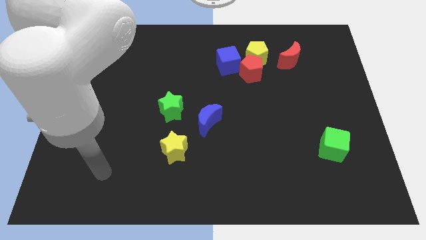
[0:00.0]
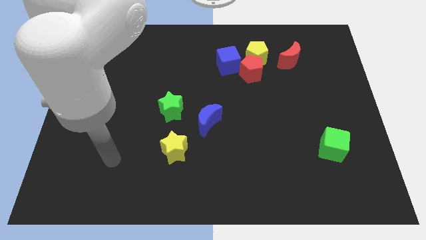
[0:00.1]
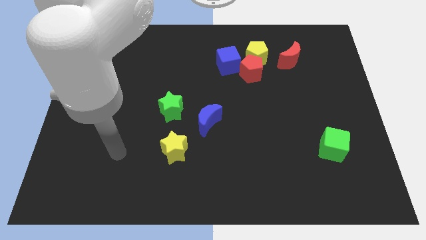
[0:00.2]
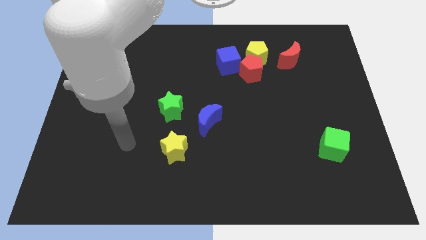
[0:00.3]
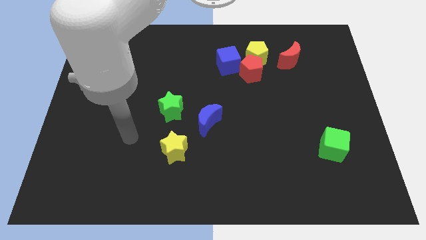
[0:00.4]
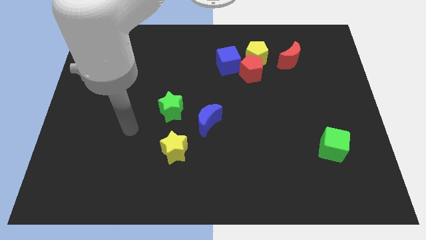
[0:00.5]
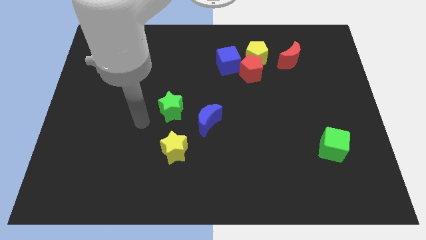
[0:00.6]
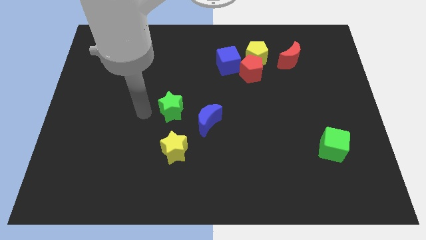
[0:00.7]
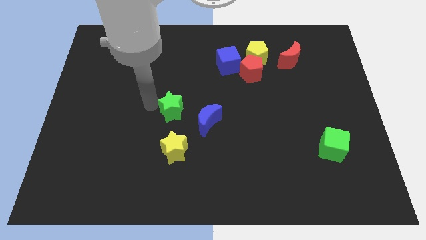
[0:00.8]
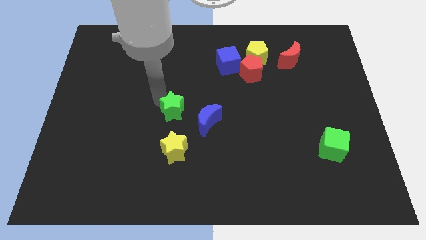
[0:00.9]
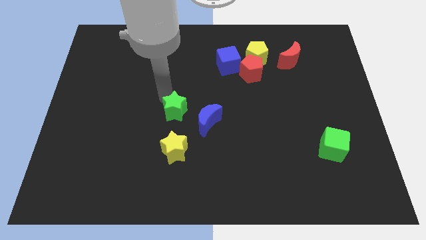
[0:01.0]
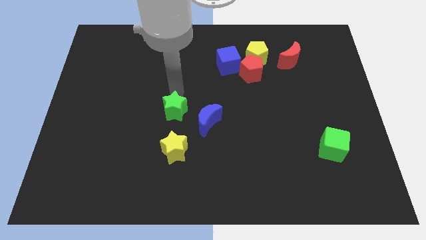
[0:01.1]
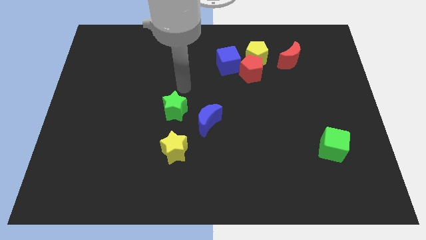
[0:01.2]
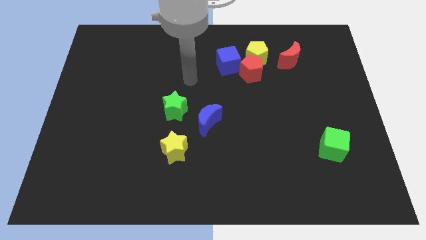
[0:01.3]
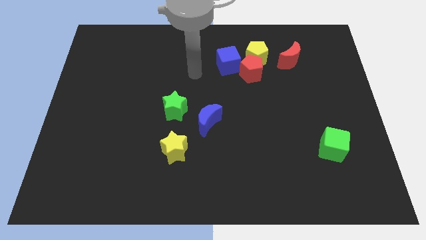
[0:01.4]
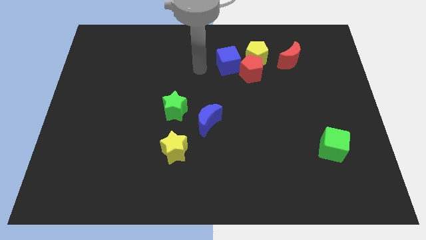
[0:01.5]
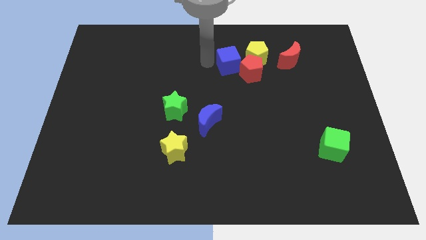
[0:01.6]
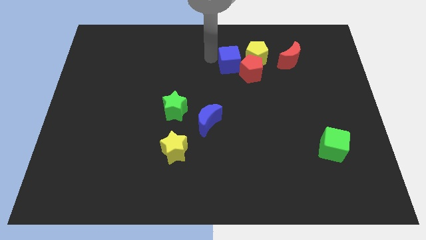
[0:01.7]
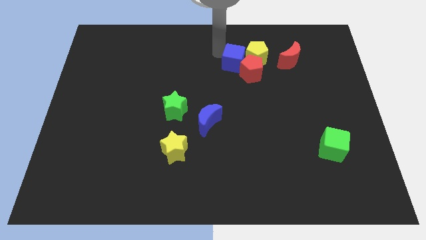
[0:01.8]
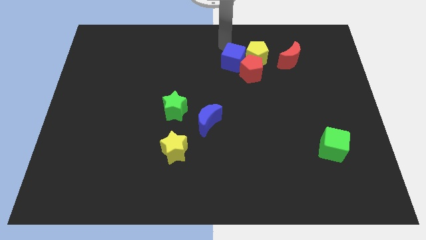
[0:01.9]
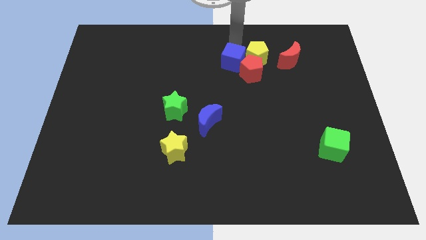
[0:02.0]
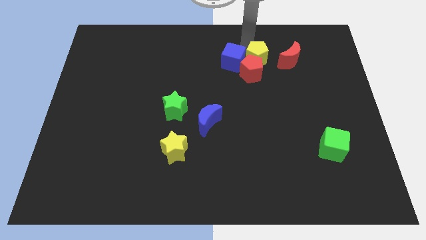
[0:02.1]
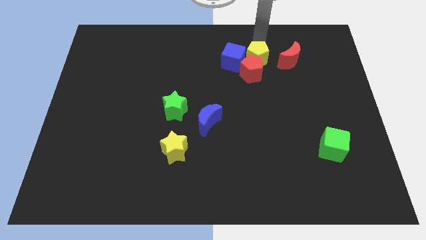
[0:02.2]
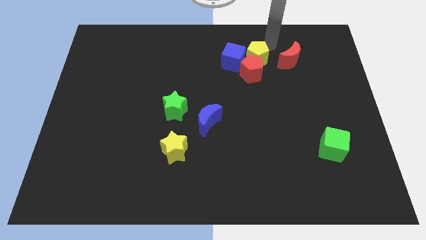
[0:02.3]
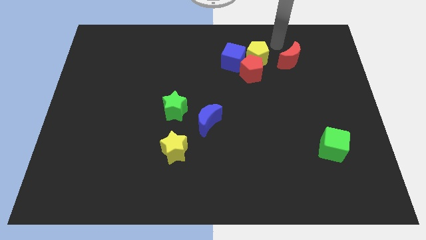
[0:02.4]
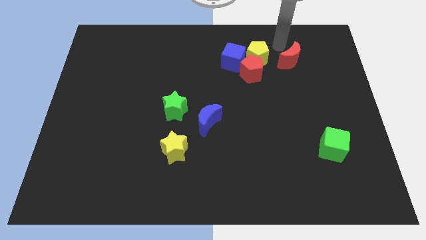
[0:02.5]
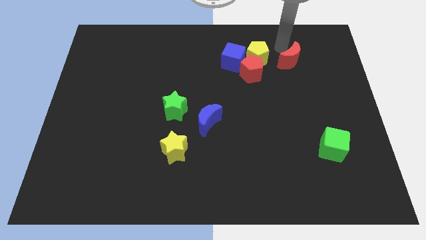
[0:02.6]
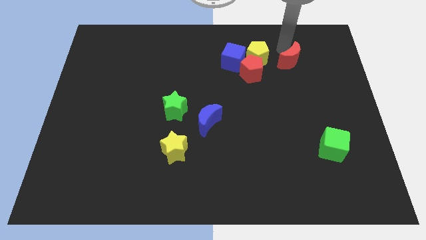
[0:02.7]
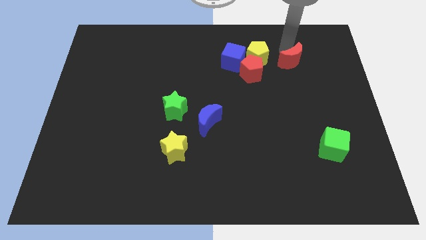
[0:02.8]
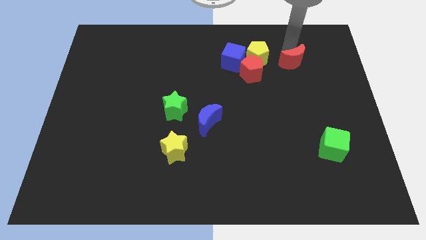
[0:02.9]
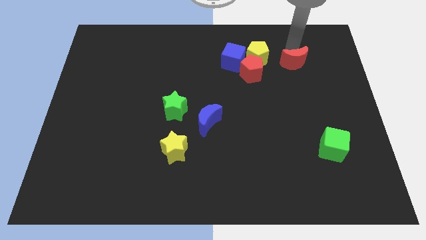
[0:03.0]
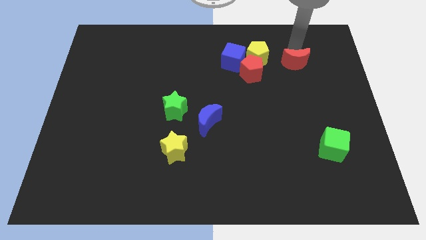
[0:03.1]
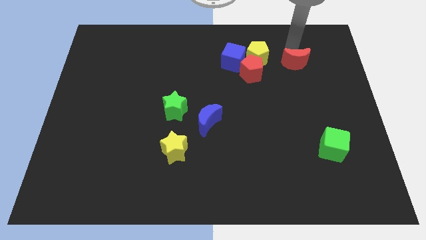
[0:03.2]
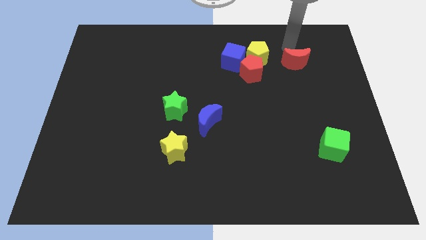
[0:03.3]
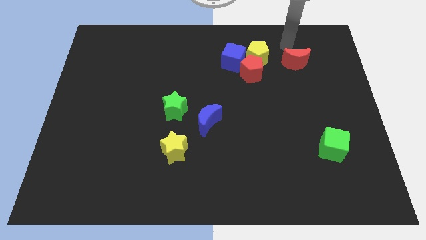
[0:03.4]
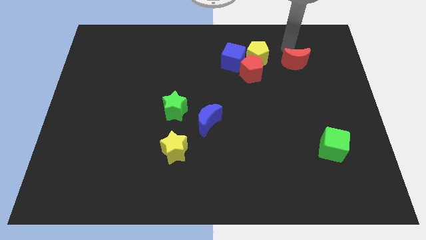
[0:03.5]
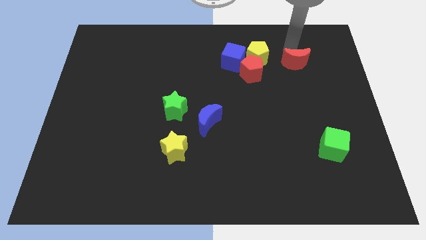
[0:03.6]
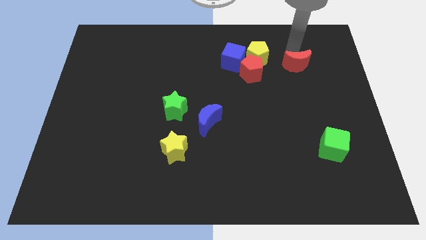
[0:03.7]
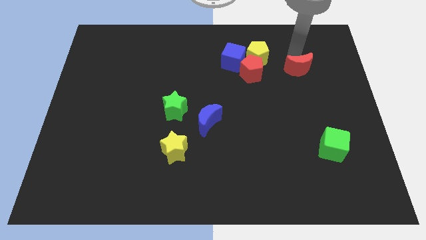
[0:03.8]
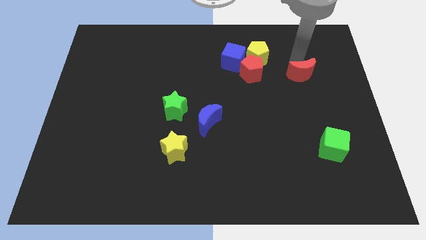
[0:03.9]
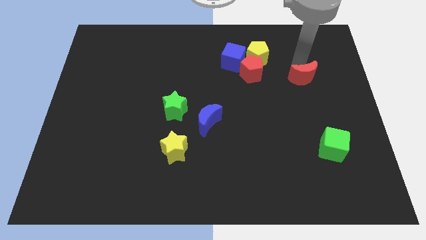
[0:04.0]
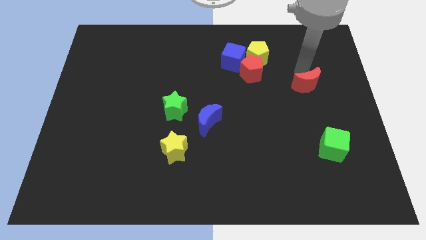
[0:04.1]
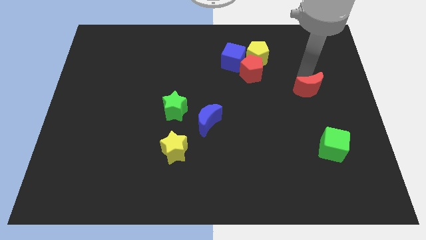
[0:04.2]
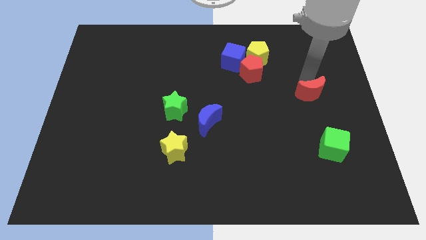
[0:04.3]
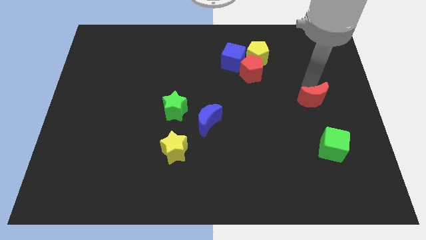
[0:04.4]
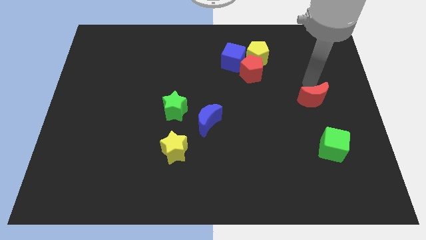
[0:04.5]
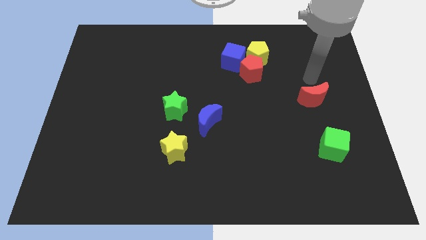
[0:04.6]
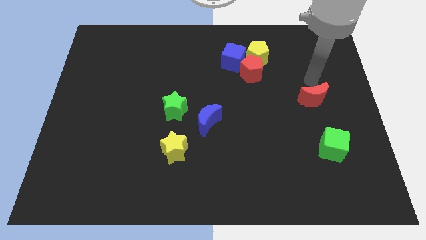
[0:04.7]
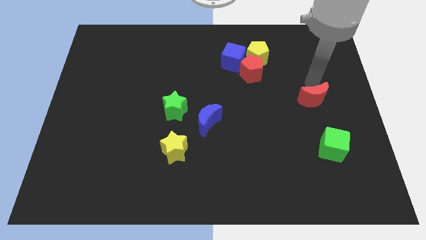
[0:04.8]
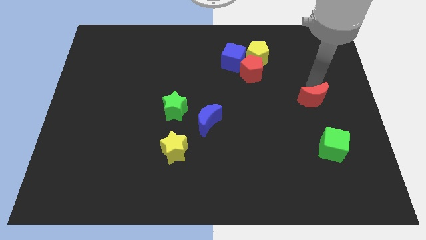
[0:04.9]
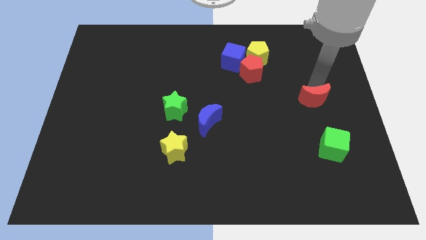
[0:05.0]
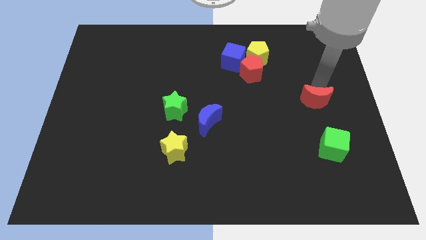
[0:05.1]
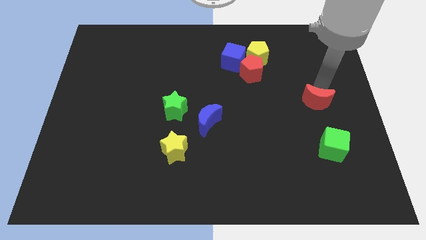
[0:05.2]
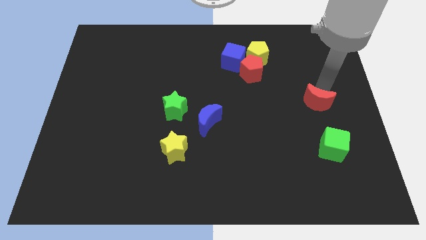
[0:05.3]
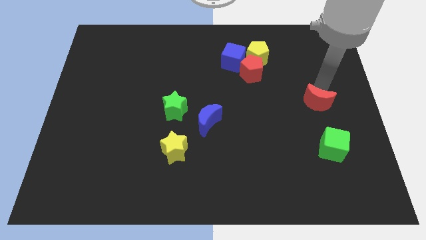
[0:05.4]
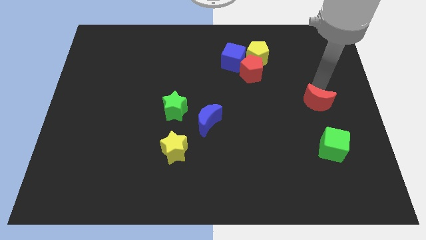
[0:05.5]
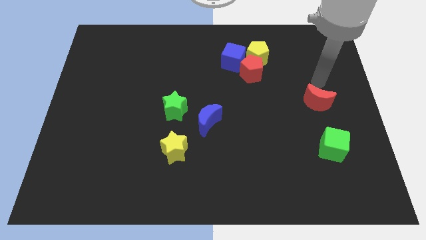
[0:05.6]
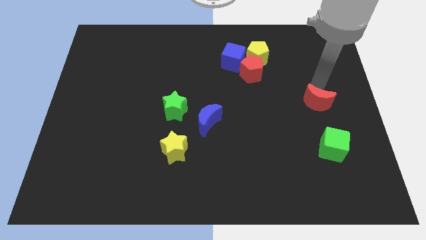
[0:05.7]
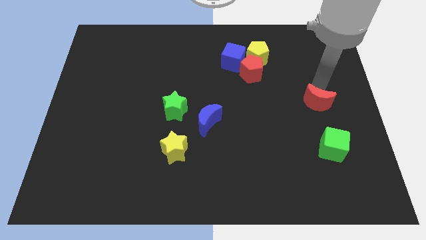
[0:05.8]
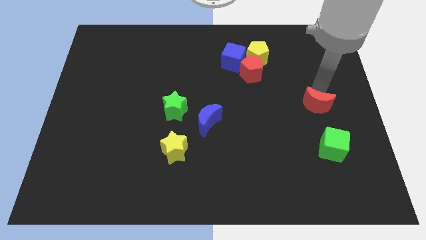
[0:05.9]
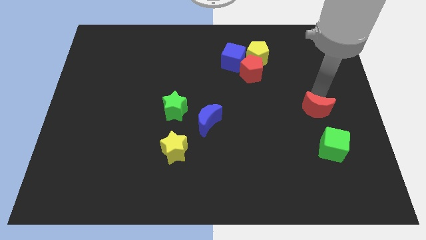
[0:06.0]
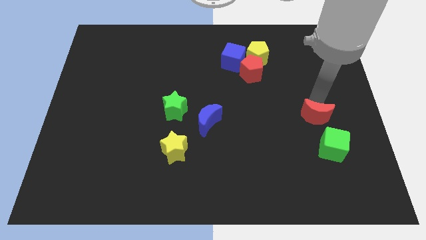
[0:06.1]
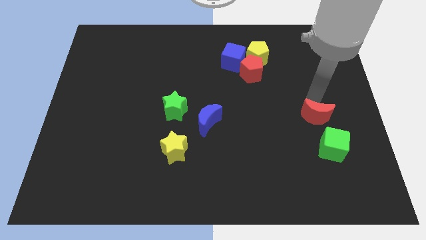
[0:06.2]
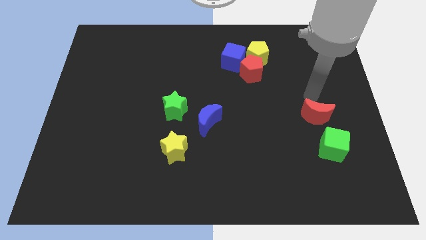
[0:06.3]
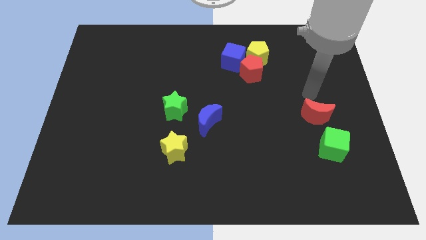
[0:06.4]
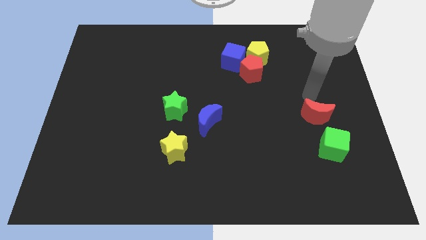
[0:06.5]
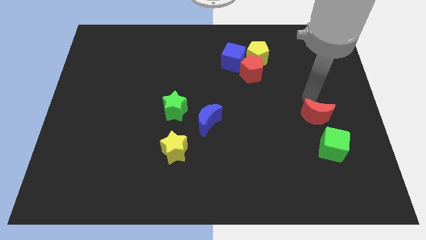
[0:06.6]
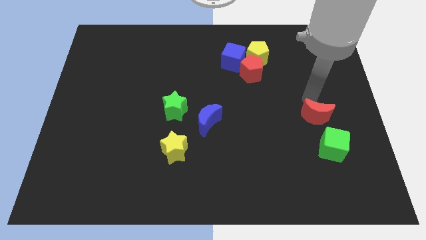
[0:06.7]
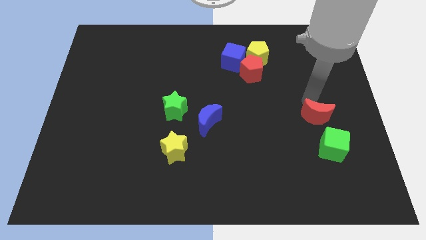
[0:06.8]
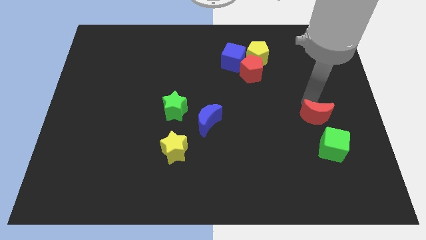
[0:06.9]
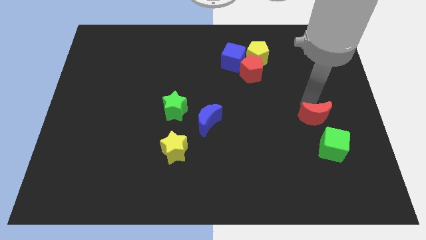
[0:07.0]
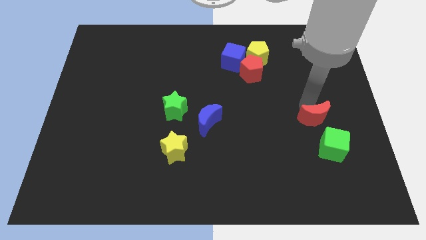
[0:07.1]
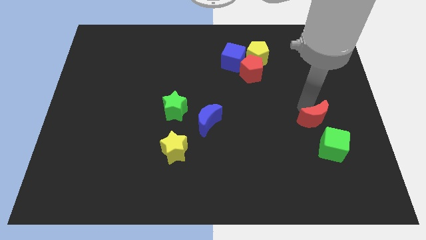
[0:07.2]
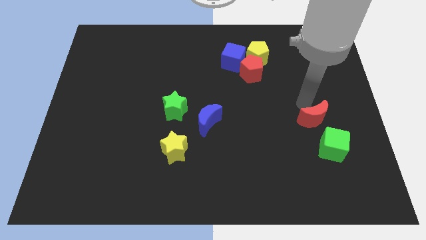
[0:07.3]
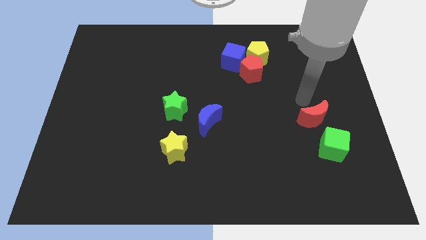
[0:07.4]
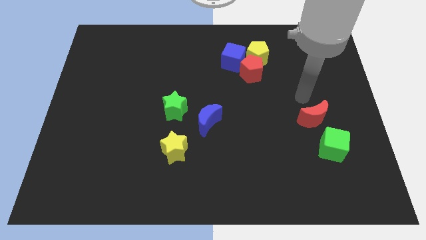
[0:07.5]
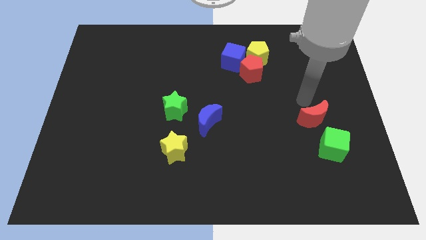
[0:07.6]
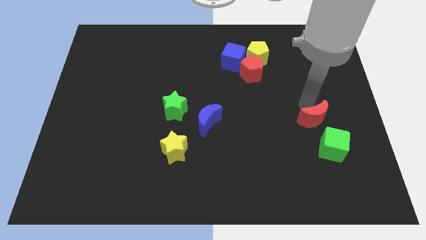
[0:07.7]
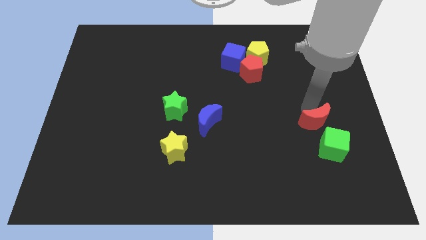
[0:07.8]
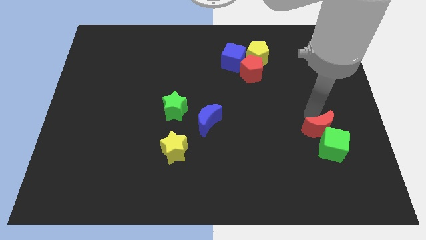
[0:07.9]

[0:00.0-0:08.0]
put the red moon next to the green cube
